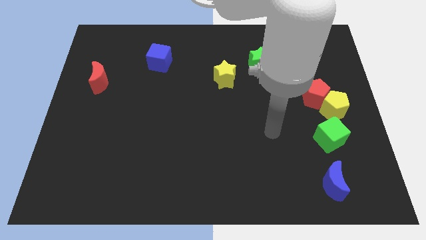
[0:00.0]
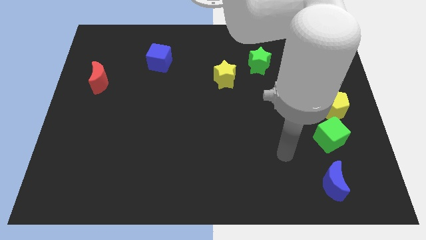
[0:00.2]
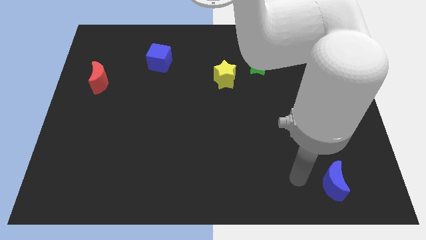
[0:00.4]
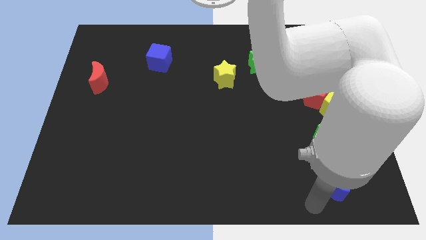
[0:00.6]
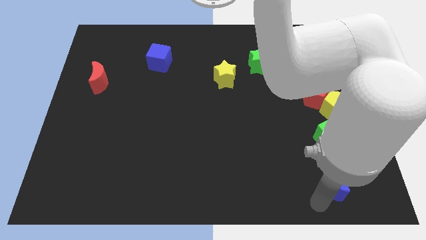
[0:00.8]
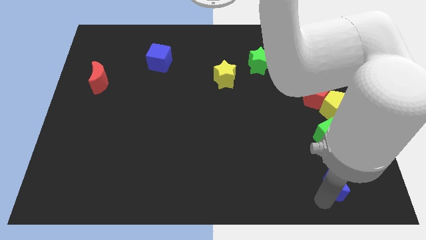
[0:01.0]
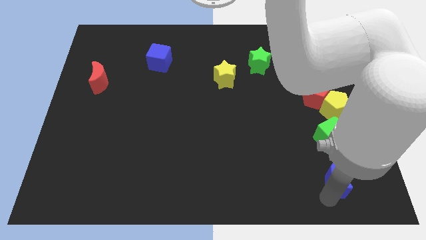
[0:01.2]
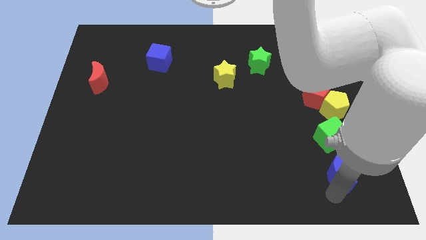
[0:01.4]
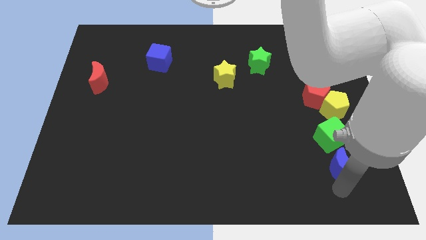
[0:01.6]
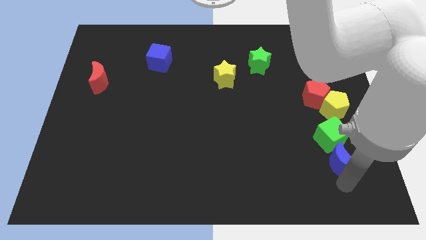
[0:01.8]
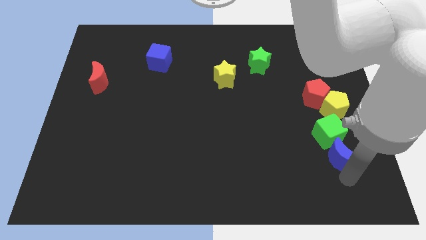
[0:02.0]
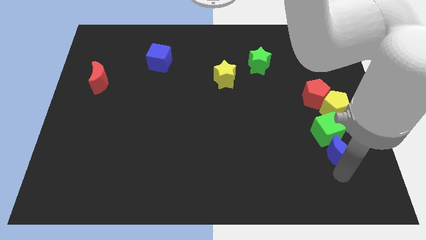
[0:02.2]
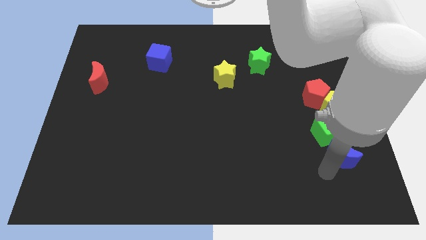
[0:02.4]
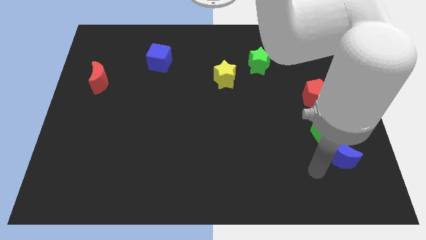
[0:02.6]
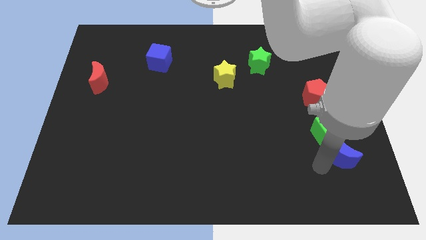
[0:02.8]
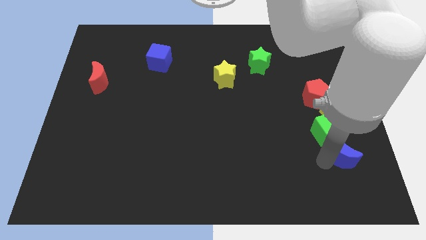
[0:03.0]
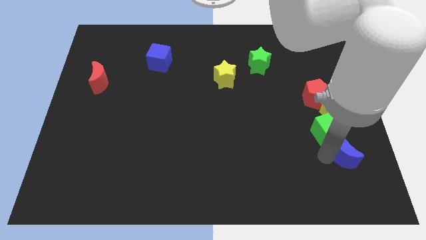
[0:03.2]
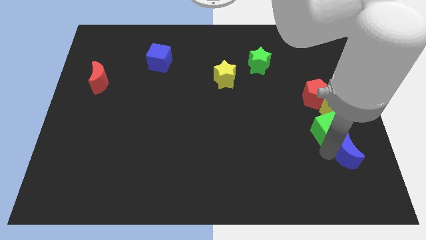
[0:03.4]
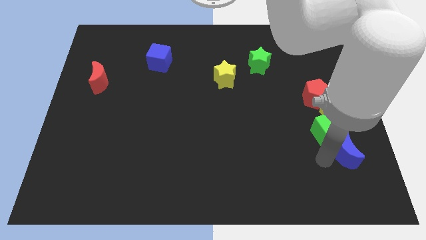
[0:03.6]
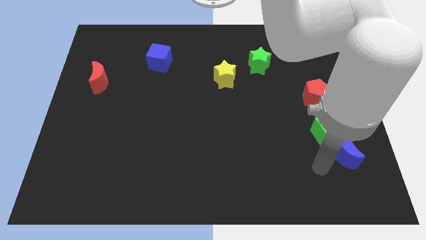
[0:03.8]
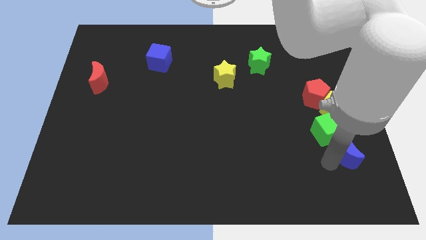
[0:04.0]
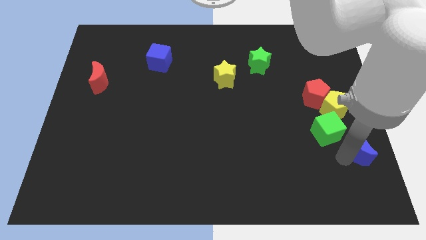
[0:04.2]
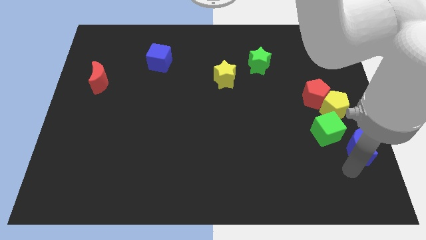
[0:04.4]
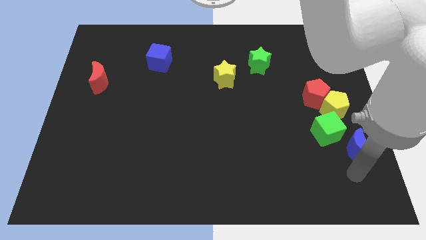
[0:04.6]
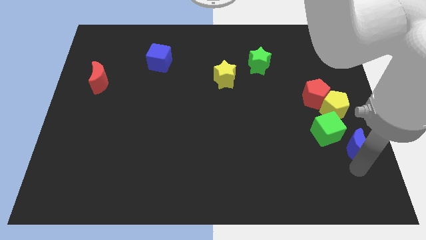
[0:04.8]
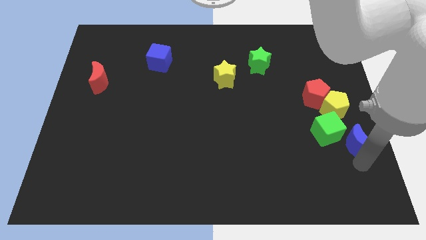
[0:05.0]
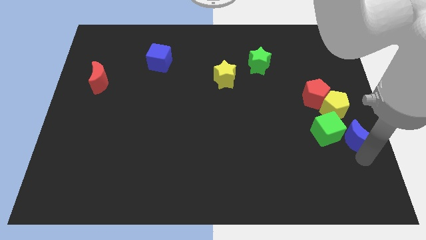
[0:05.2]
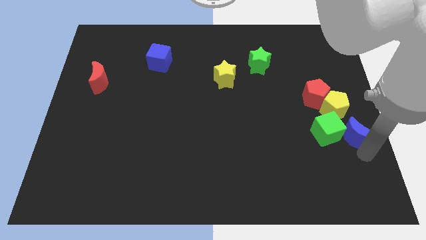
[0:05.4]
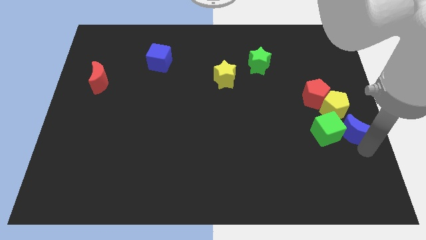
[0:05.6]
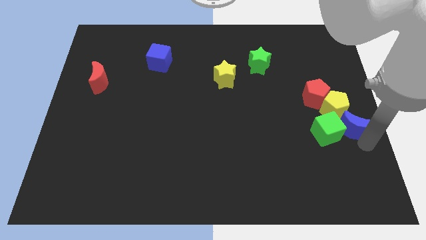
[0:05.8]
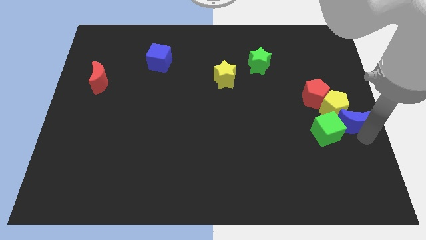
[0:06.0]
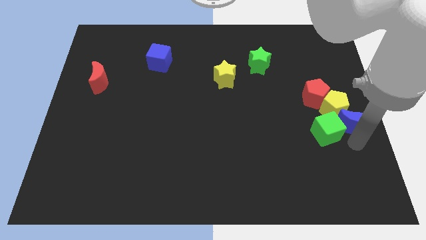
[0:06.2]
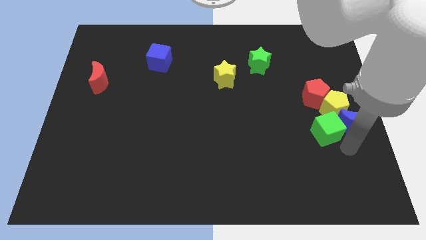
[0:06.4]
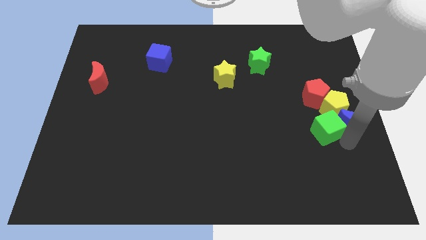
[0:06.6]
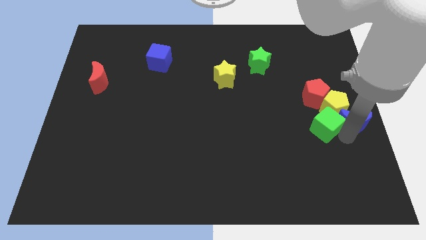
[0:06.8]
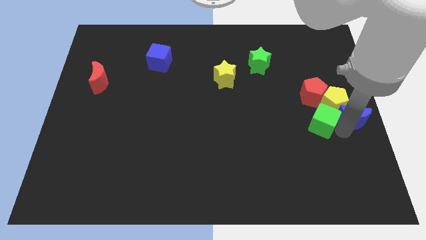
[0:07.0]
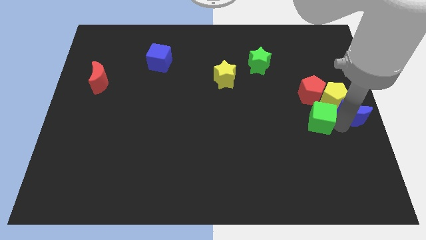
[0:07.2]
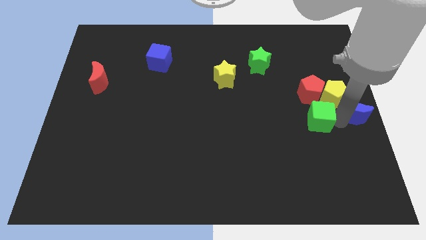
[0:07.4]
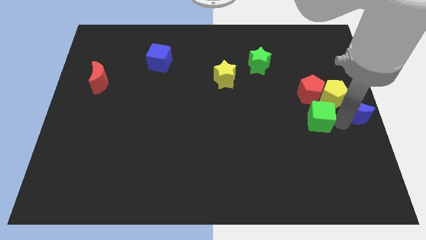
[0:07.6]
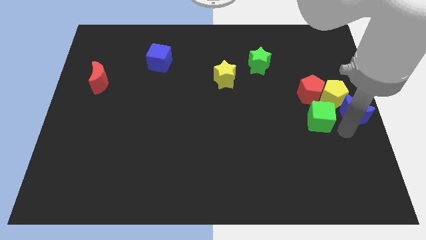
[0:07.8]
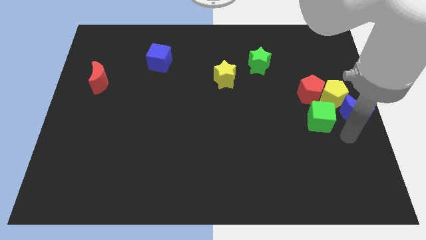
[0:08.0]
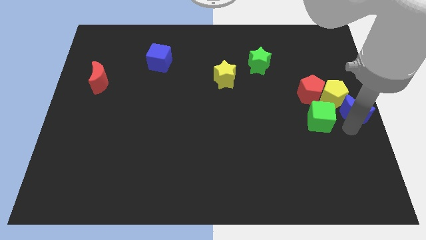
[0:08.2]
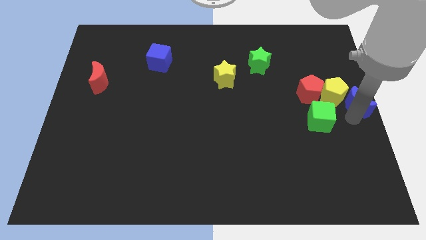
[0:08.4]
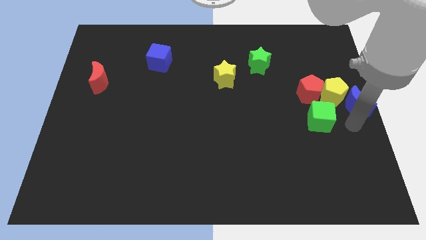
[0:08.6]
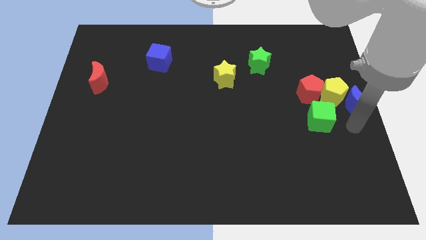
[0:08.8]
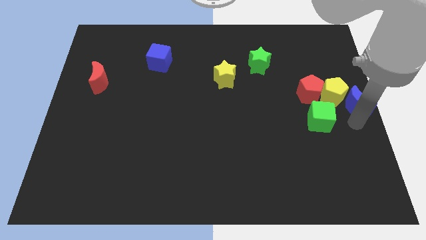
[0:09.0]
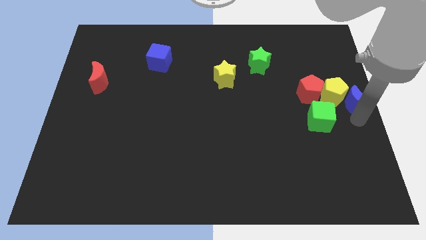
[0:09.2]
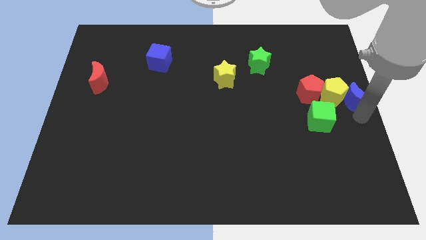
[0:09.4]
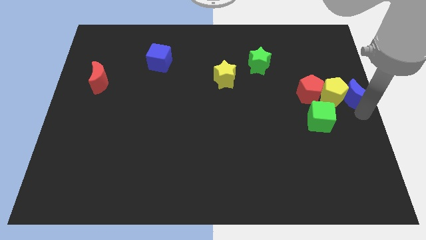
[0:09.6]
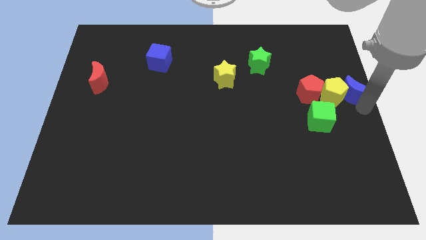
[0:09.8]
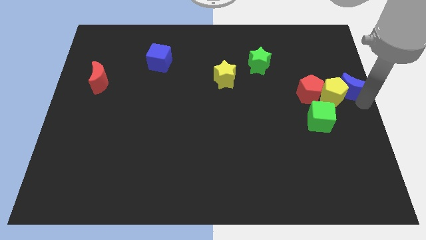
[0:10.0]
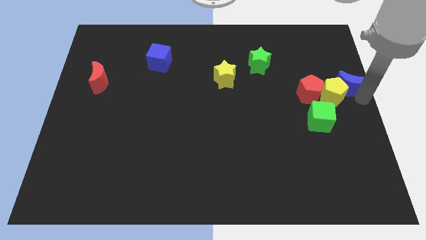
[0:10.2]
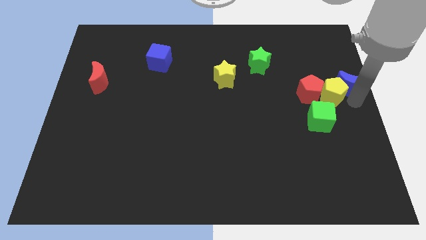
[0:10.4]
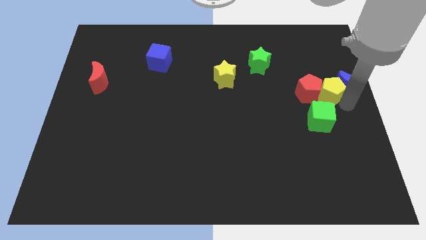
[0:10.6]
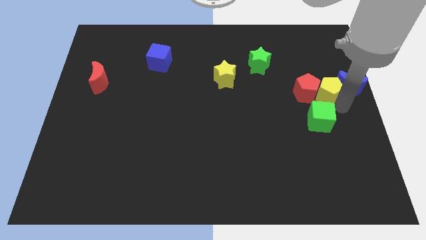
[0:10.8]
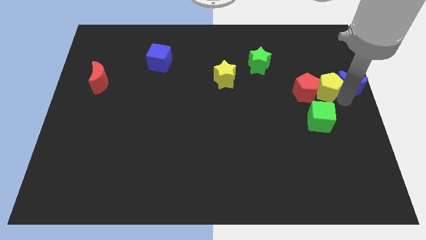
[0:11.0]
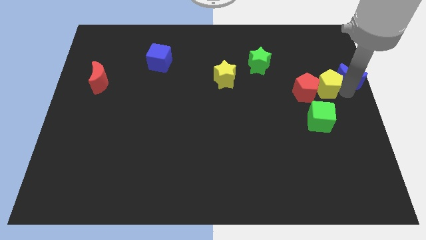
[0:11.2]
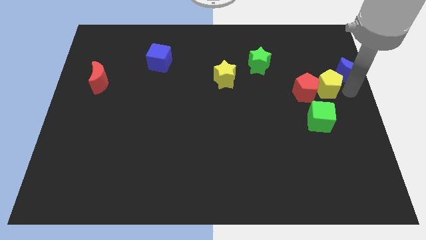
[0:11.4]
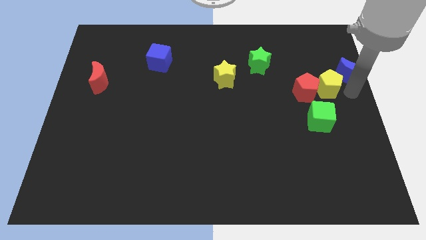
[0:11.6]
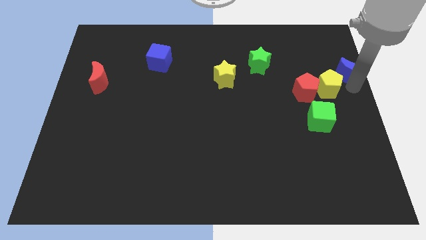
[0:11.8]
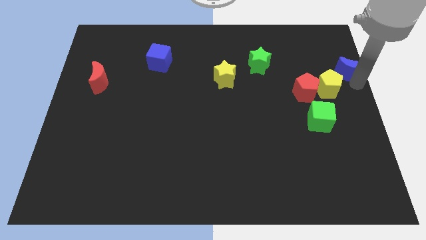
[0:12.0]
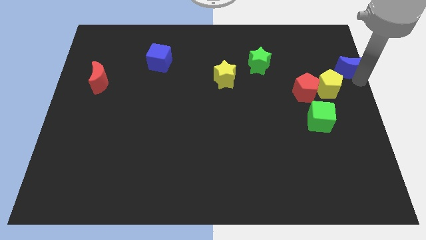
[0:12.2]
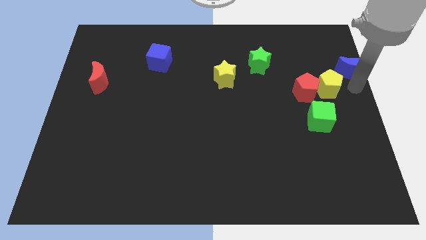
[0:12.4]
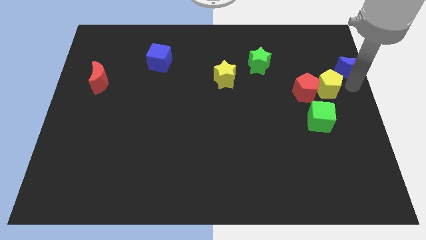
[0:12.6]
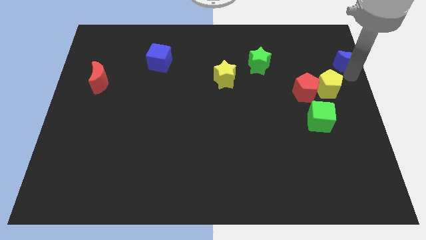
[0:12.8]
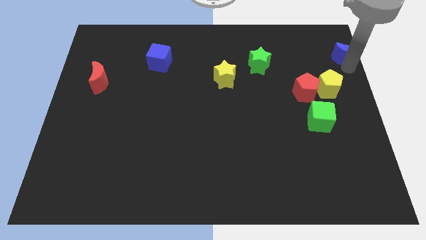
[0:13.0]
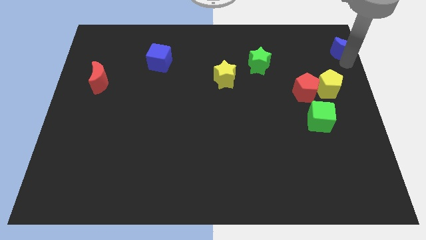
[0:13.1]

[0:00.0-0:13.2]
push the blue moon to the top right
